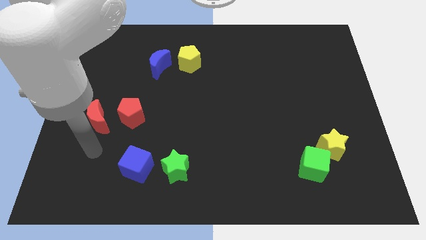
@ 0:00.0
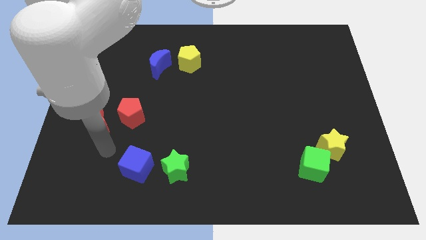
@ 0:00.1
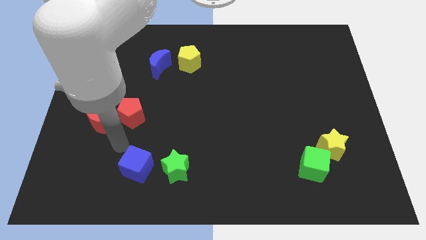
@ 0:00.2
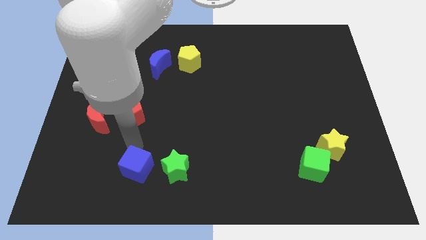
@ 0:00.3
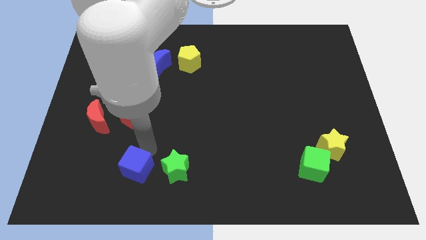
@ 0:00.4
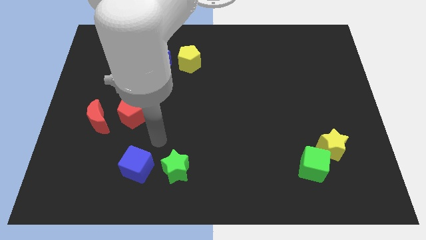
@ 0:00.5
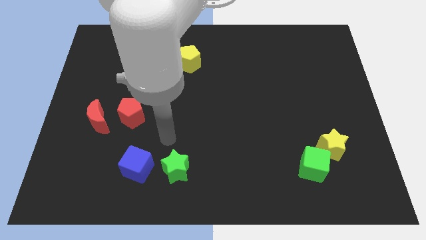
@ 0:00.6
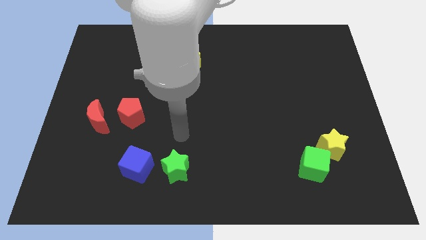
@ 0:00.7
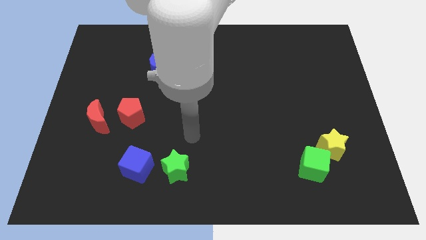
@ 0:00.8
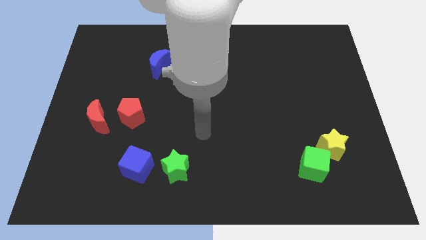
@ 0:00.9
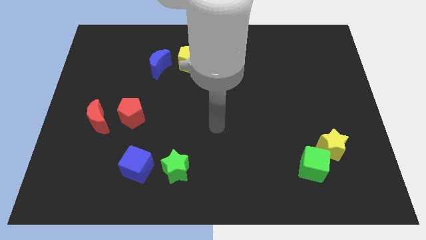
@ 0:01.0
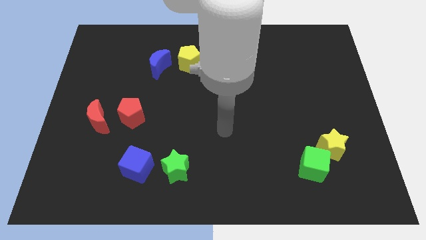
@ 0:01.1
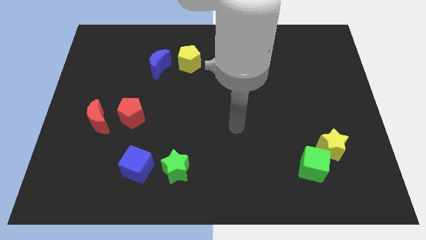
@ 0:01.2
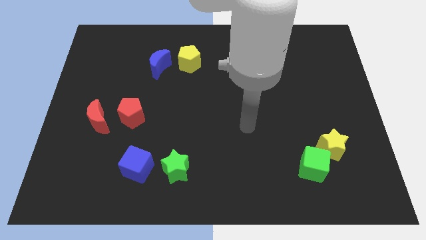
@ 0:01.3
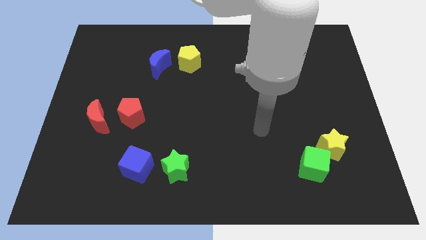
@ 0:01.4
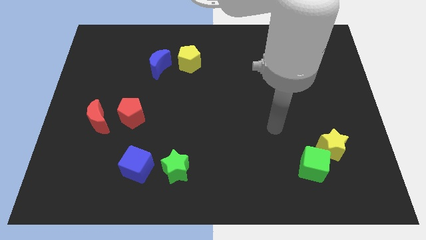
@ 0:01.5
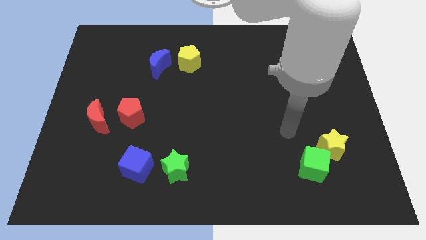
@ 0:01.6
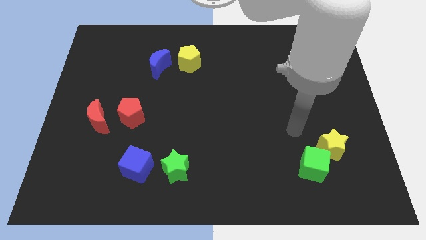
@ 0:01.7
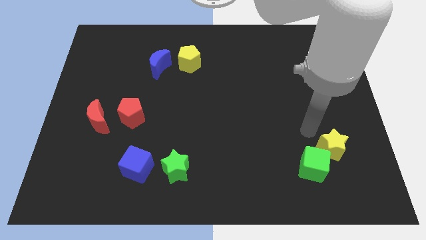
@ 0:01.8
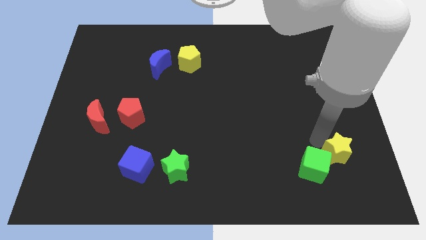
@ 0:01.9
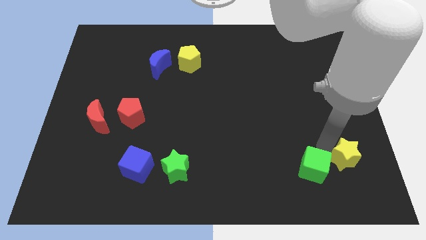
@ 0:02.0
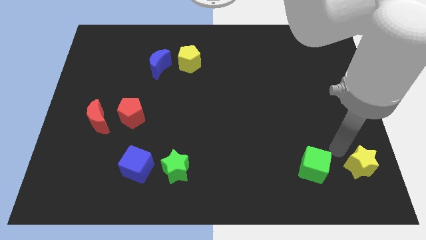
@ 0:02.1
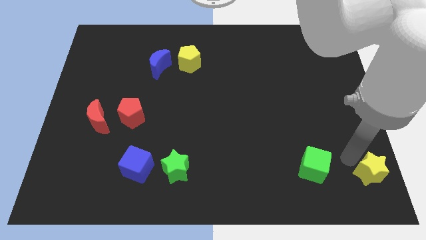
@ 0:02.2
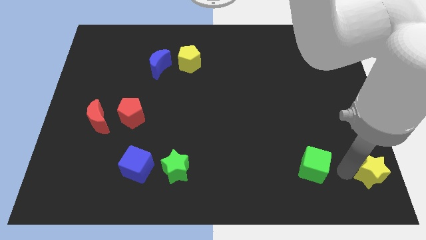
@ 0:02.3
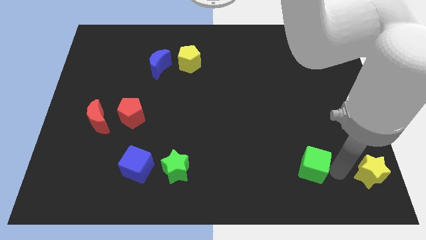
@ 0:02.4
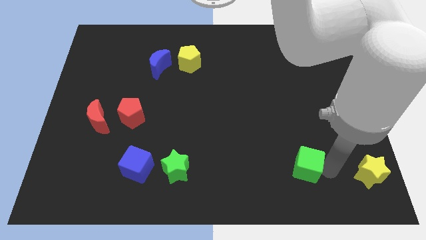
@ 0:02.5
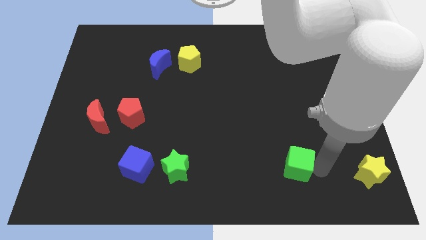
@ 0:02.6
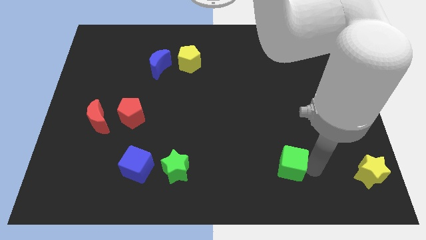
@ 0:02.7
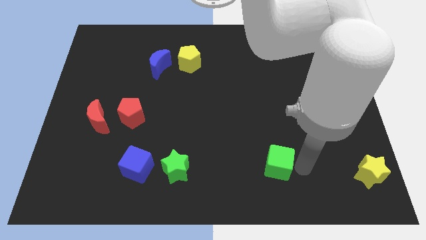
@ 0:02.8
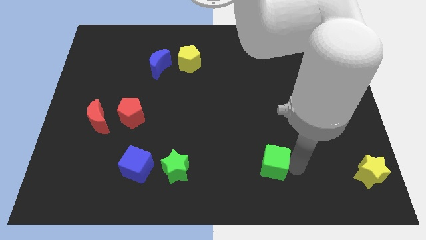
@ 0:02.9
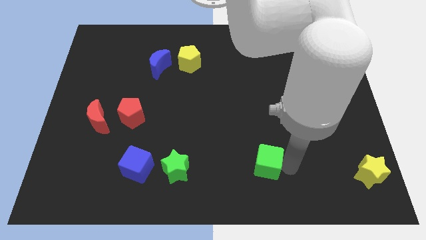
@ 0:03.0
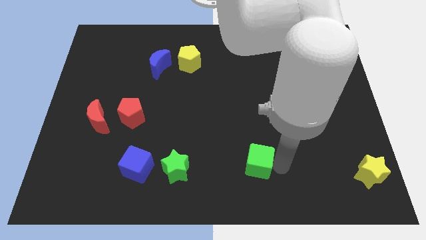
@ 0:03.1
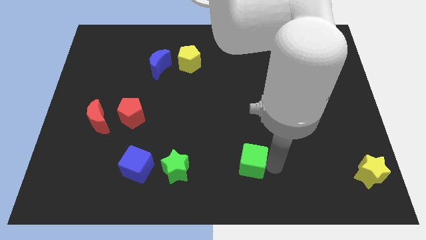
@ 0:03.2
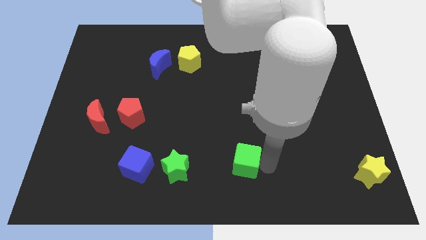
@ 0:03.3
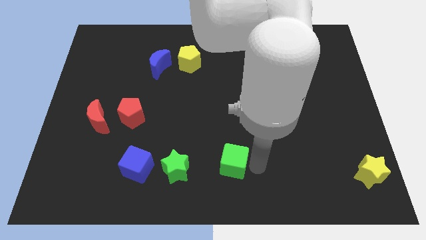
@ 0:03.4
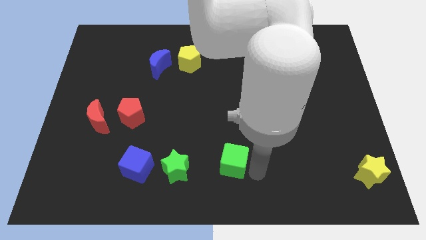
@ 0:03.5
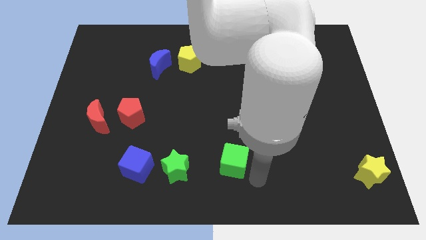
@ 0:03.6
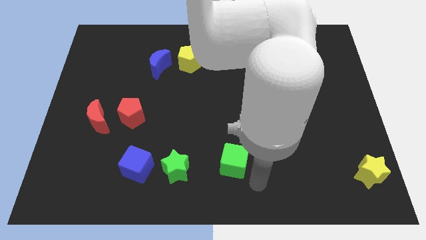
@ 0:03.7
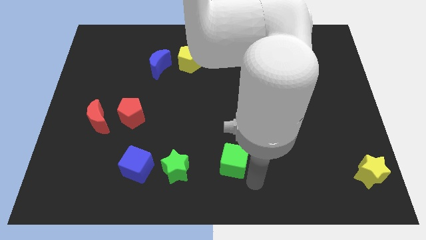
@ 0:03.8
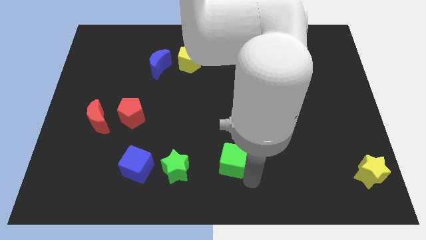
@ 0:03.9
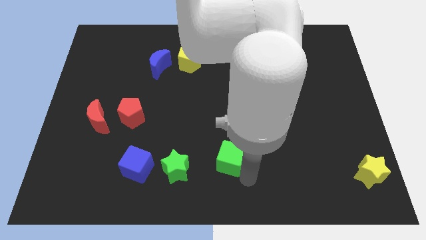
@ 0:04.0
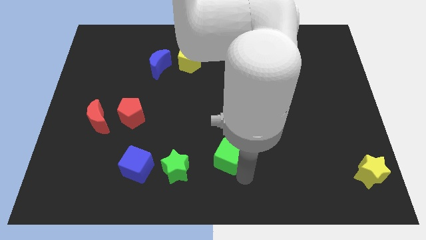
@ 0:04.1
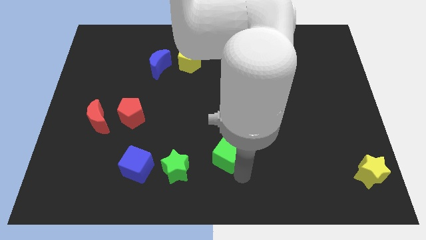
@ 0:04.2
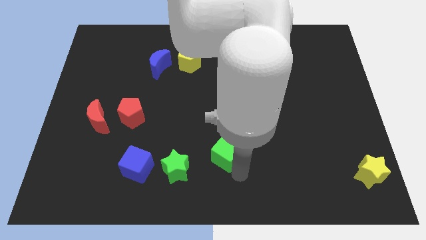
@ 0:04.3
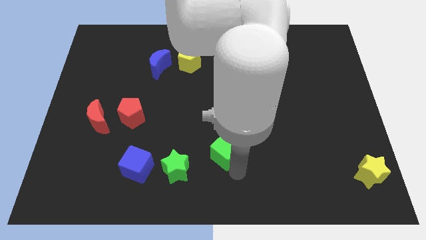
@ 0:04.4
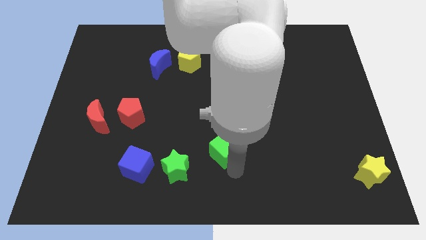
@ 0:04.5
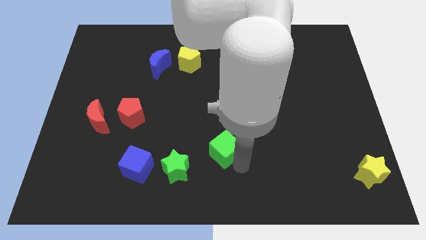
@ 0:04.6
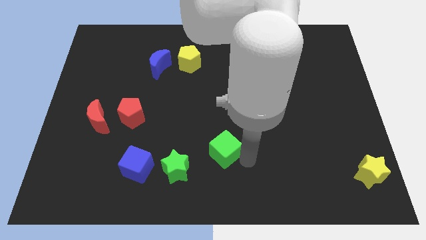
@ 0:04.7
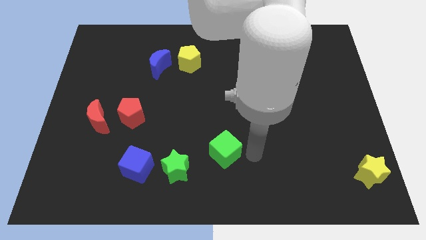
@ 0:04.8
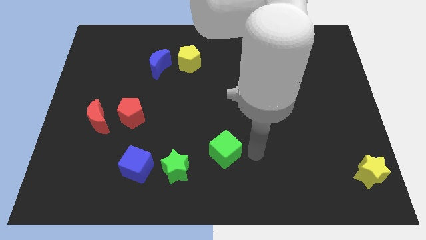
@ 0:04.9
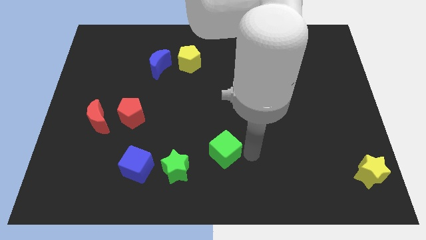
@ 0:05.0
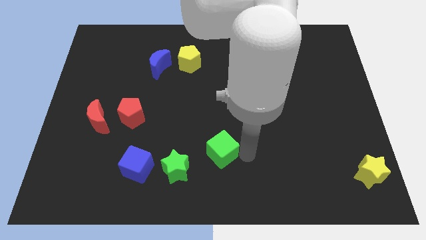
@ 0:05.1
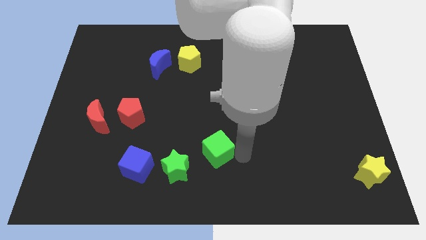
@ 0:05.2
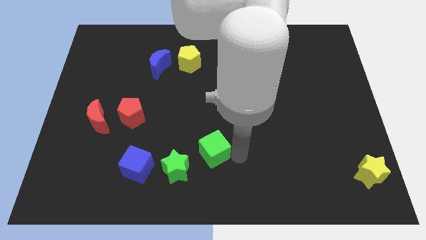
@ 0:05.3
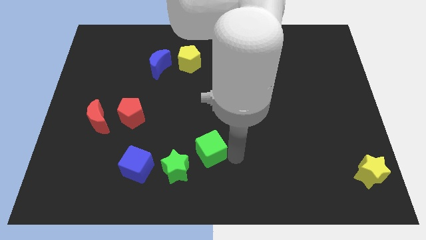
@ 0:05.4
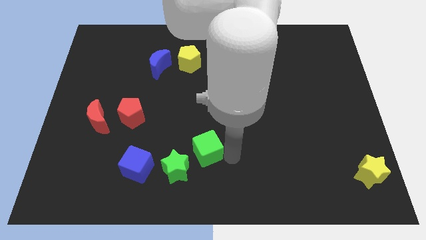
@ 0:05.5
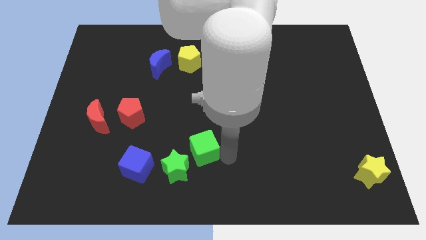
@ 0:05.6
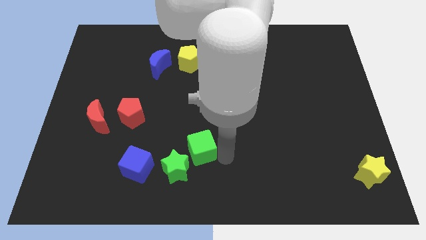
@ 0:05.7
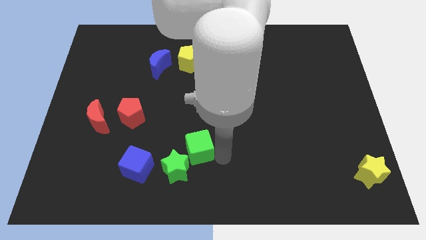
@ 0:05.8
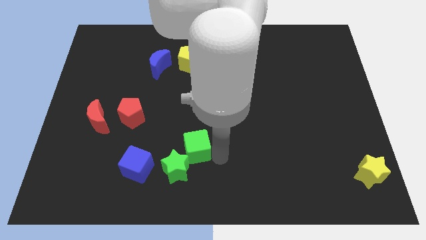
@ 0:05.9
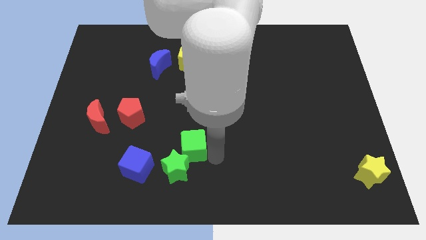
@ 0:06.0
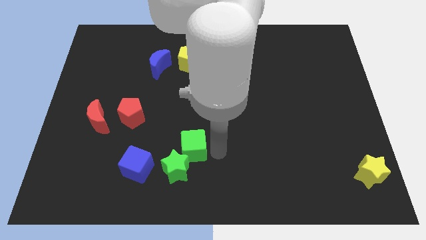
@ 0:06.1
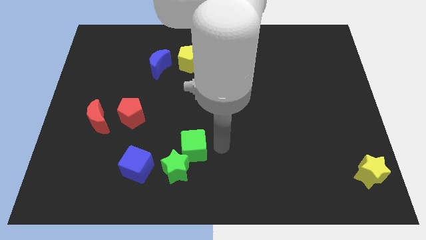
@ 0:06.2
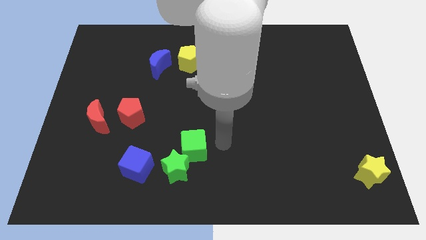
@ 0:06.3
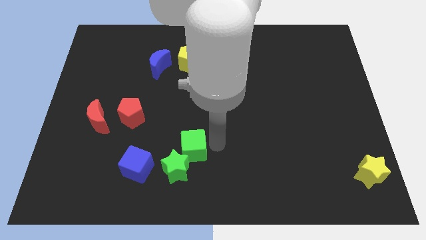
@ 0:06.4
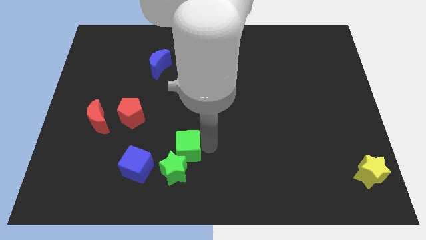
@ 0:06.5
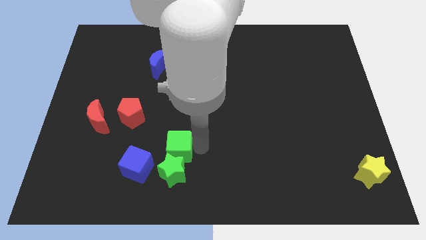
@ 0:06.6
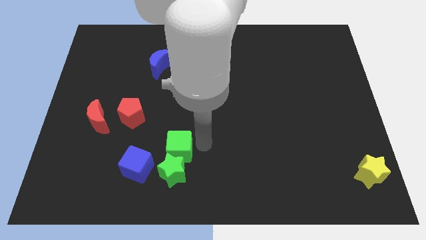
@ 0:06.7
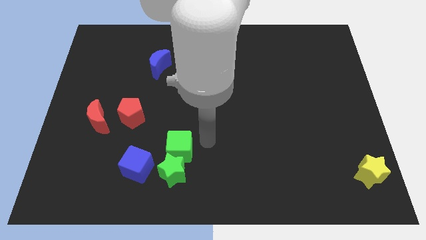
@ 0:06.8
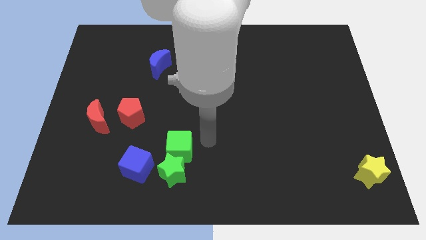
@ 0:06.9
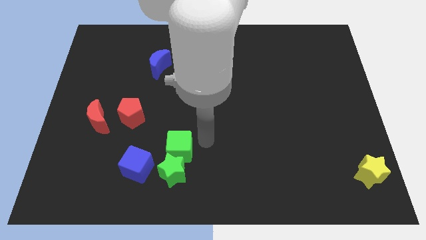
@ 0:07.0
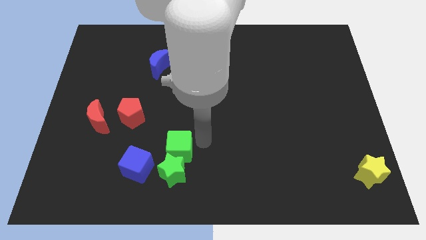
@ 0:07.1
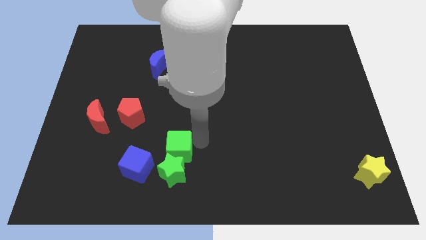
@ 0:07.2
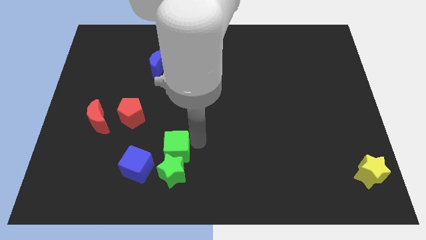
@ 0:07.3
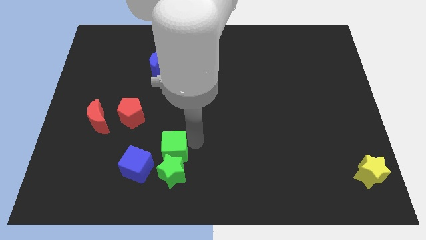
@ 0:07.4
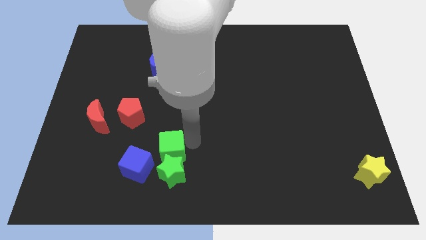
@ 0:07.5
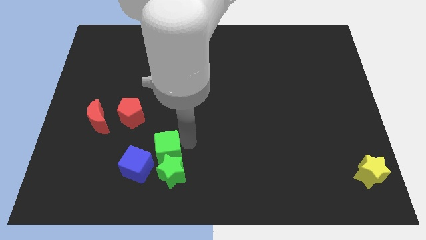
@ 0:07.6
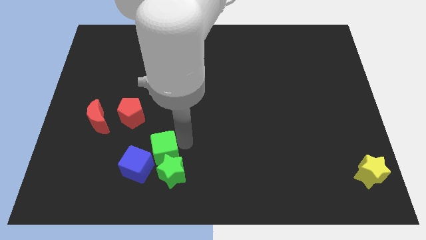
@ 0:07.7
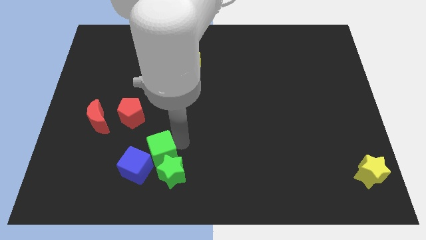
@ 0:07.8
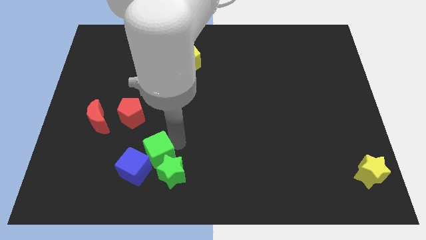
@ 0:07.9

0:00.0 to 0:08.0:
slide the green cube close to the blue cube
